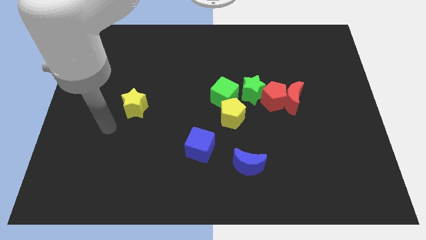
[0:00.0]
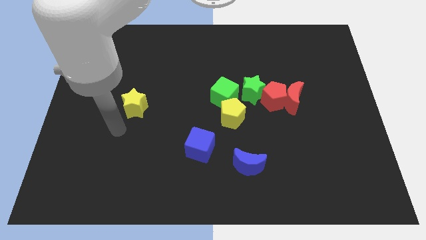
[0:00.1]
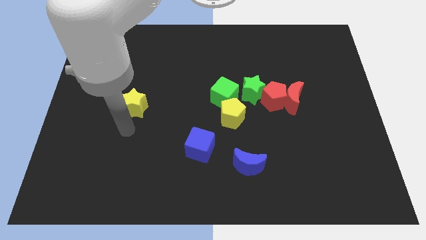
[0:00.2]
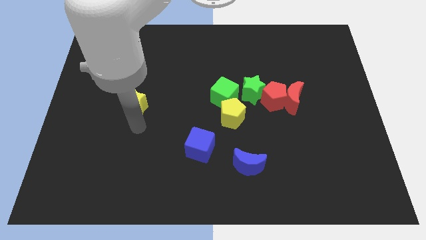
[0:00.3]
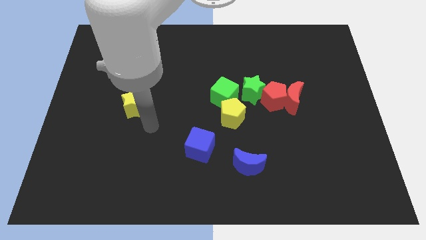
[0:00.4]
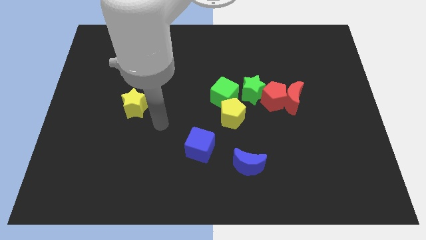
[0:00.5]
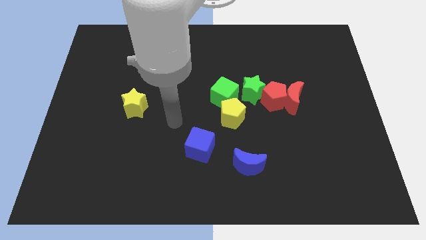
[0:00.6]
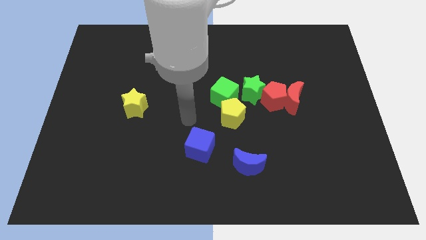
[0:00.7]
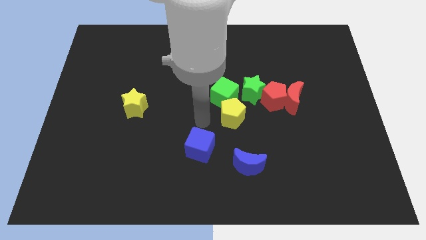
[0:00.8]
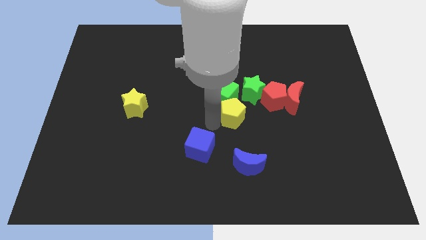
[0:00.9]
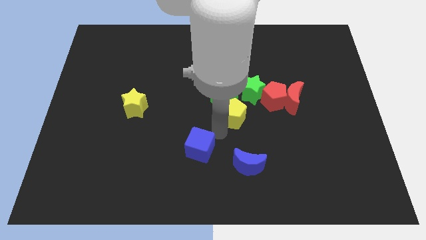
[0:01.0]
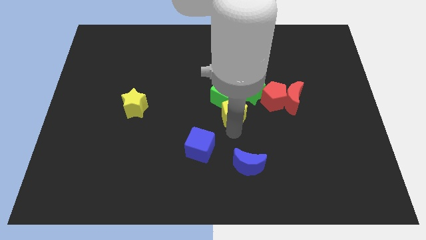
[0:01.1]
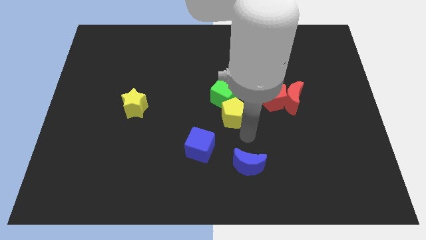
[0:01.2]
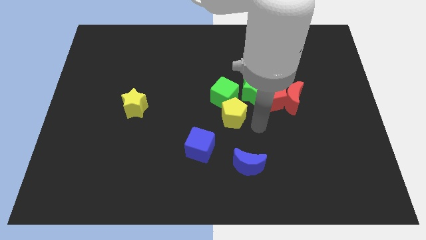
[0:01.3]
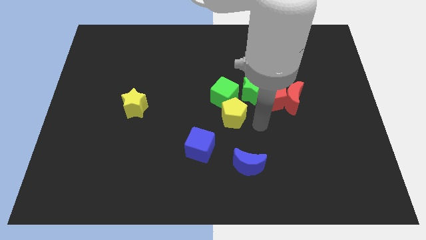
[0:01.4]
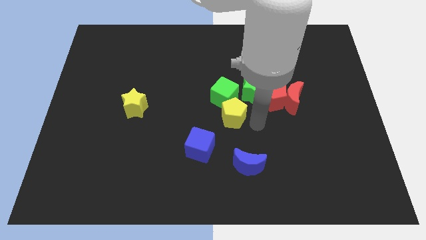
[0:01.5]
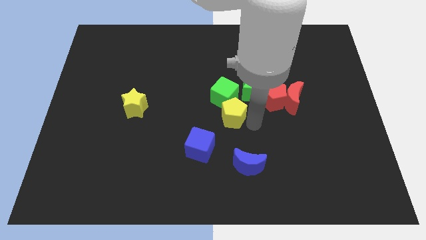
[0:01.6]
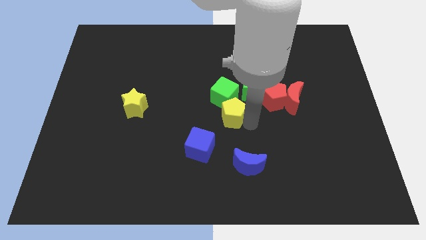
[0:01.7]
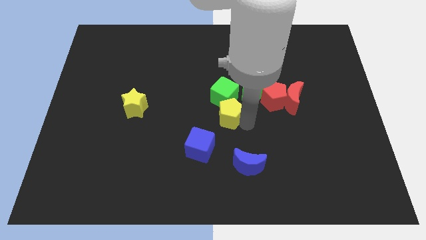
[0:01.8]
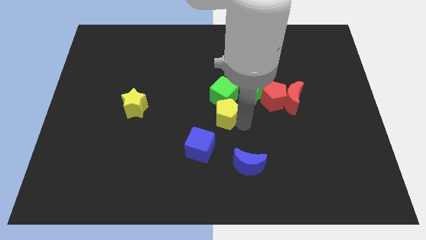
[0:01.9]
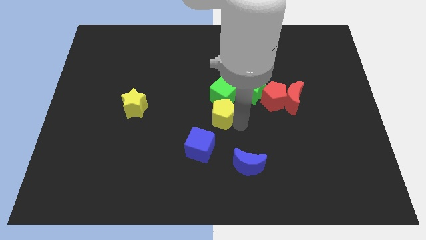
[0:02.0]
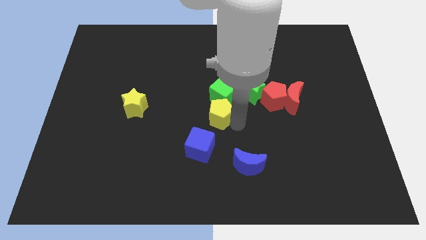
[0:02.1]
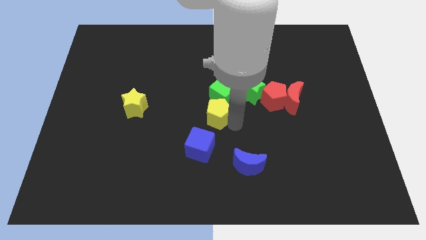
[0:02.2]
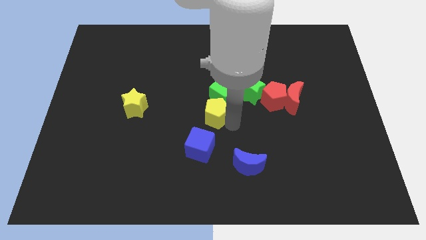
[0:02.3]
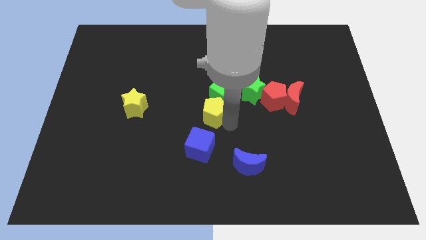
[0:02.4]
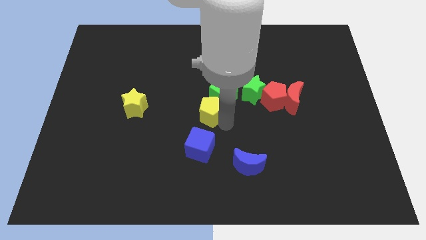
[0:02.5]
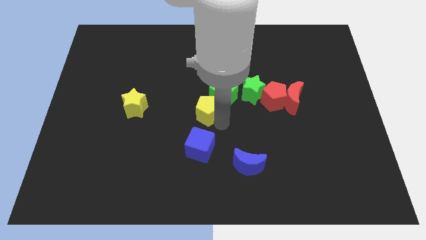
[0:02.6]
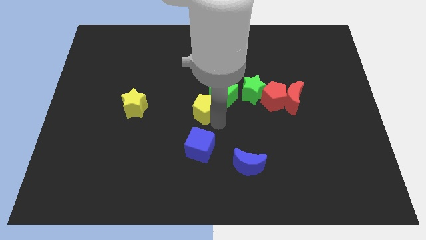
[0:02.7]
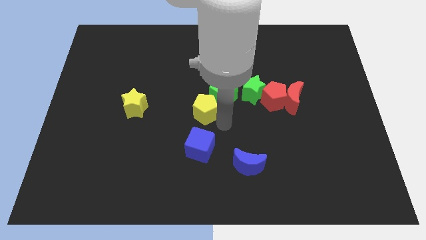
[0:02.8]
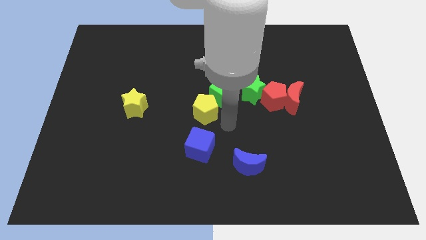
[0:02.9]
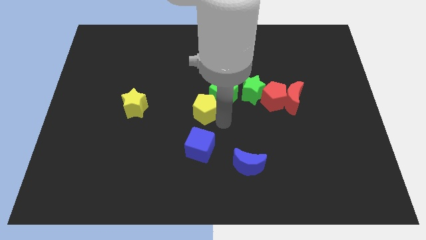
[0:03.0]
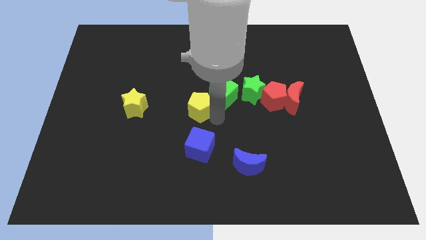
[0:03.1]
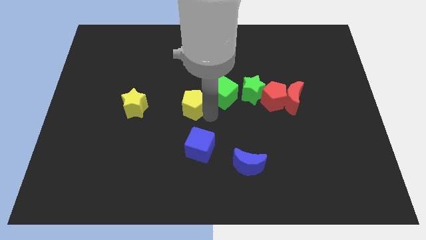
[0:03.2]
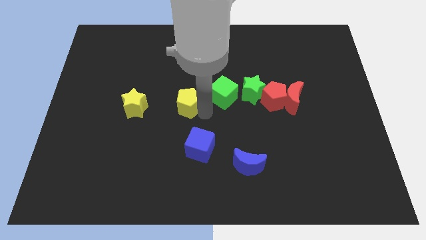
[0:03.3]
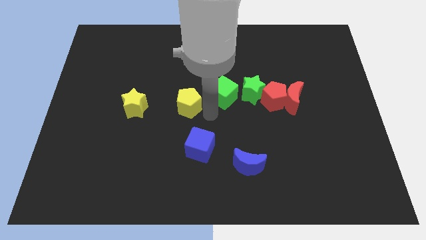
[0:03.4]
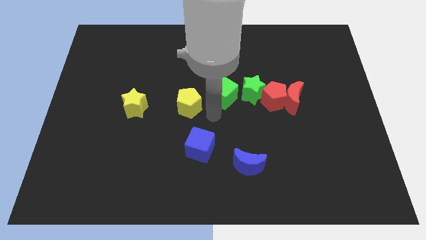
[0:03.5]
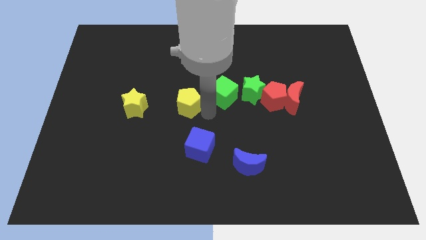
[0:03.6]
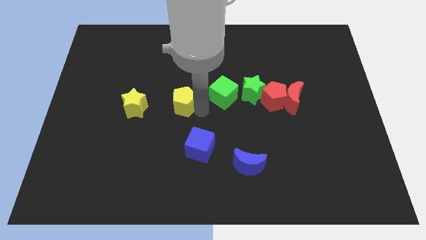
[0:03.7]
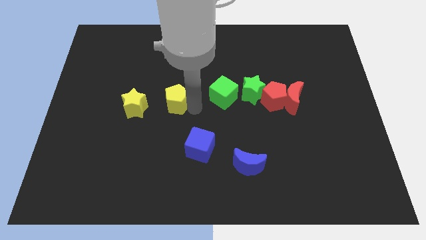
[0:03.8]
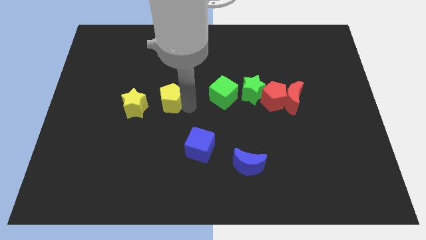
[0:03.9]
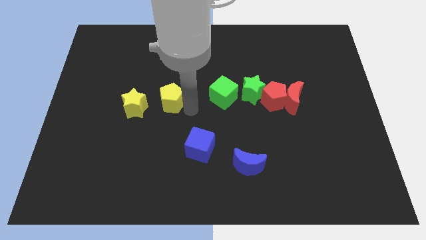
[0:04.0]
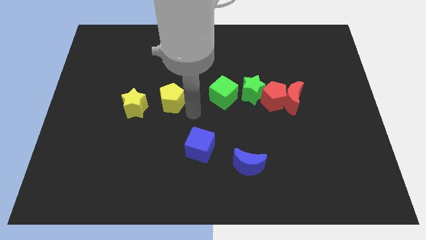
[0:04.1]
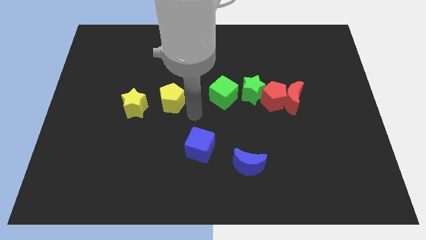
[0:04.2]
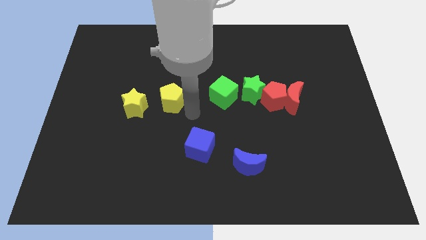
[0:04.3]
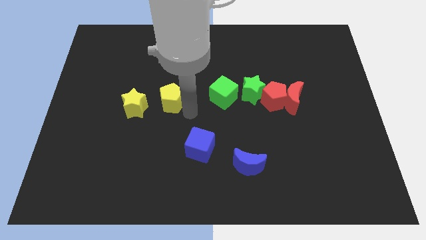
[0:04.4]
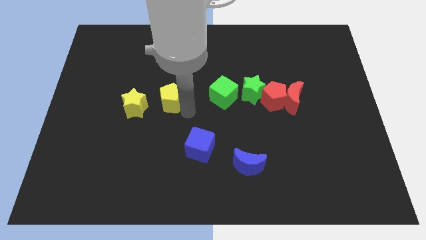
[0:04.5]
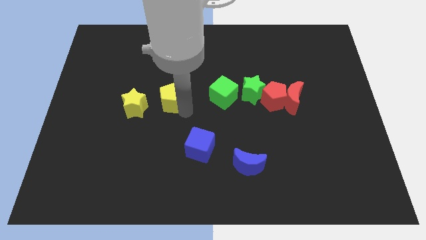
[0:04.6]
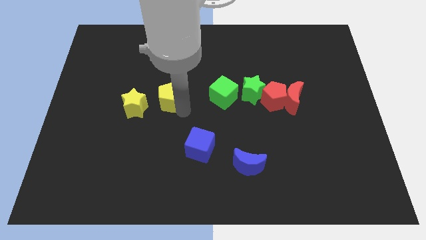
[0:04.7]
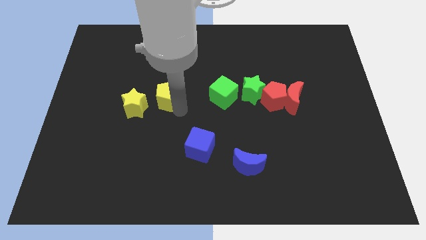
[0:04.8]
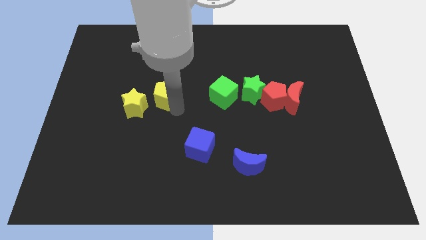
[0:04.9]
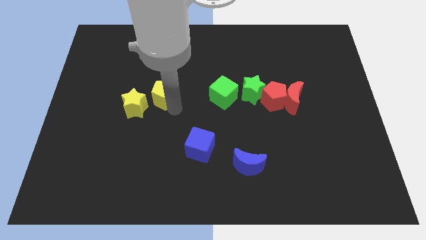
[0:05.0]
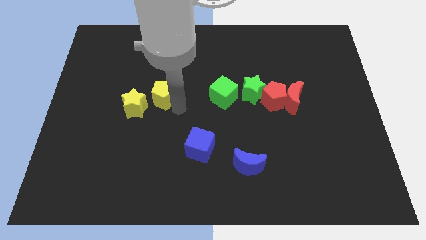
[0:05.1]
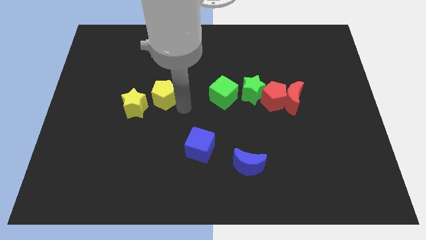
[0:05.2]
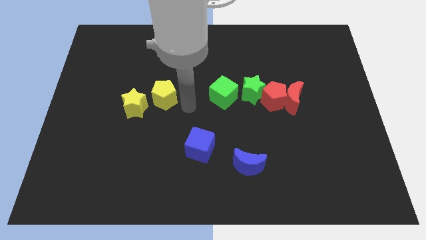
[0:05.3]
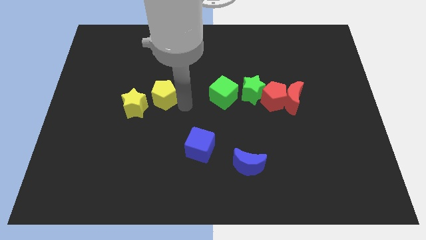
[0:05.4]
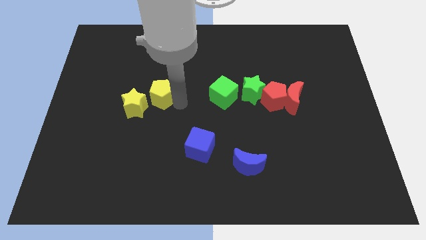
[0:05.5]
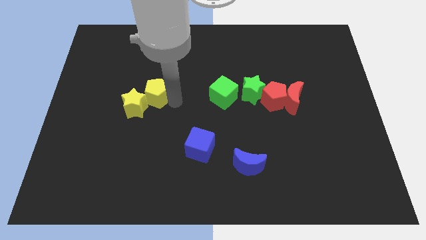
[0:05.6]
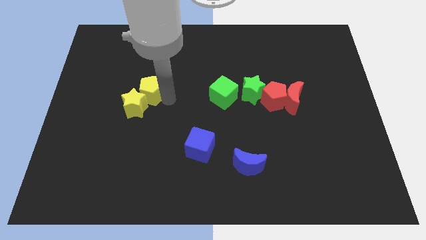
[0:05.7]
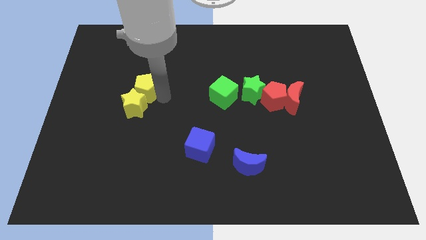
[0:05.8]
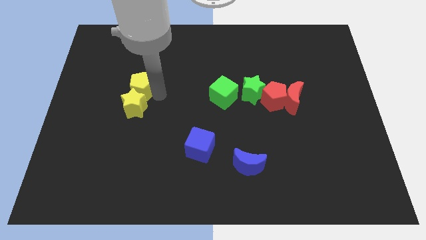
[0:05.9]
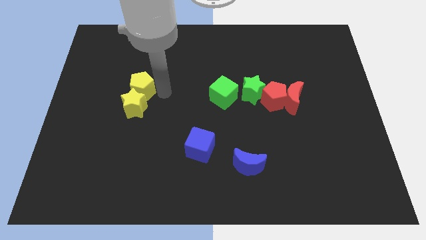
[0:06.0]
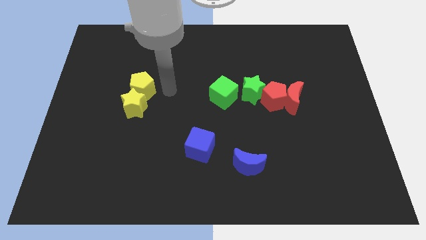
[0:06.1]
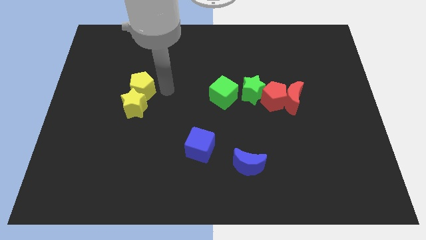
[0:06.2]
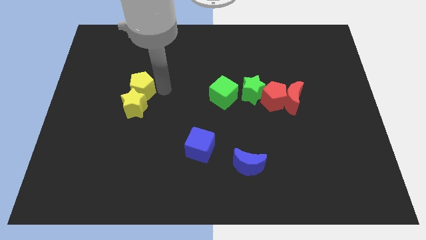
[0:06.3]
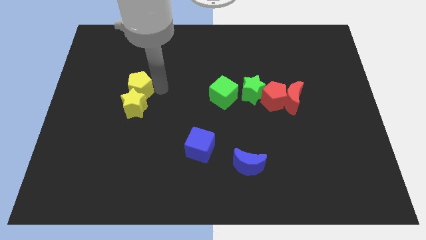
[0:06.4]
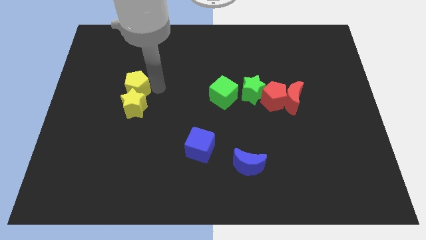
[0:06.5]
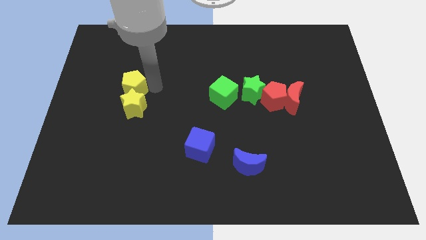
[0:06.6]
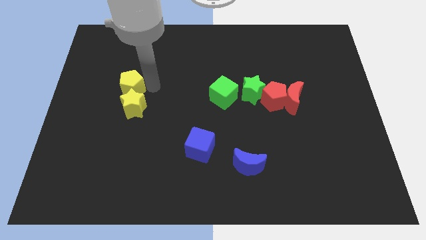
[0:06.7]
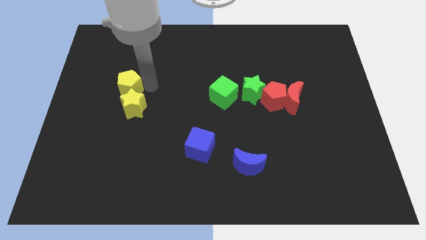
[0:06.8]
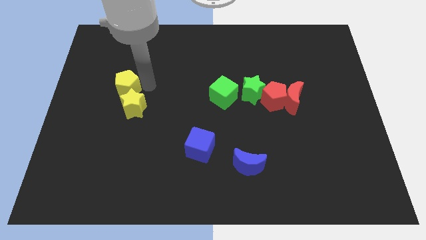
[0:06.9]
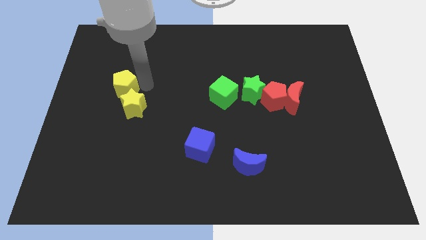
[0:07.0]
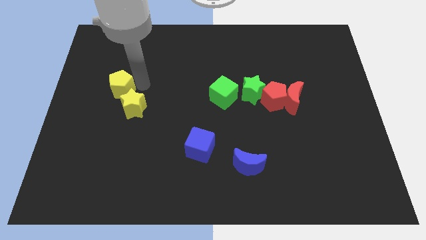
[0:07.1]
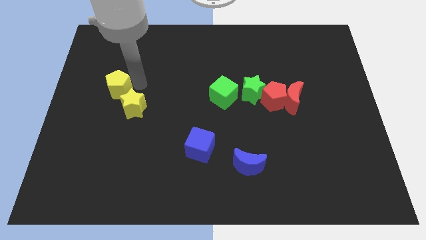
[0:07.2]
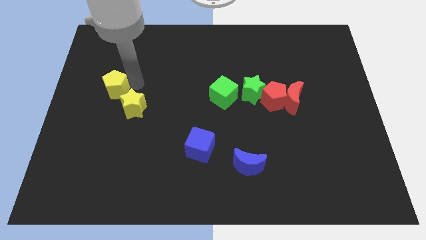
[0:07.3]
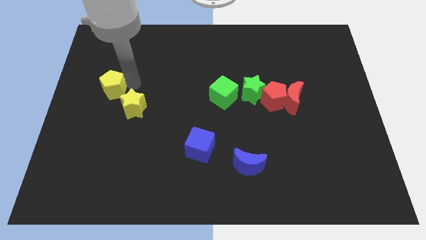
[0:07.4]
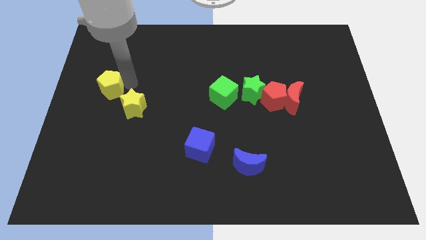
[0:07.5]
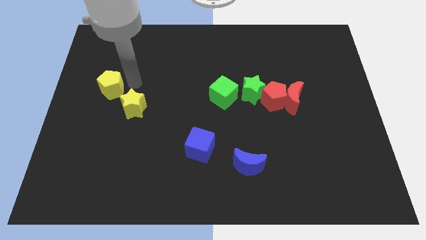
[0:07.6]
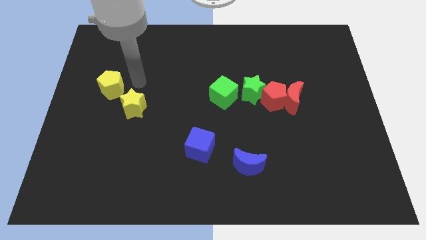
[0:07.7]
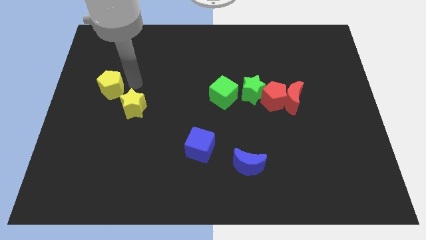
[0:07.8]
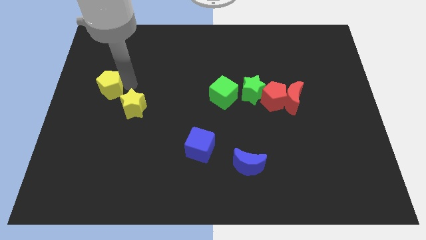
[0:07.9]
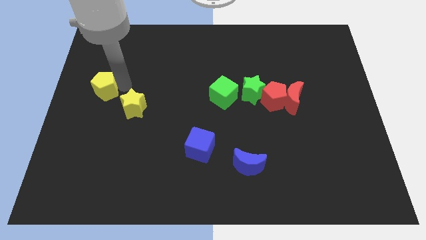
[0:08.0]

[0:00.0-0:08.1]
push the yellow pentagon to the left side
